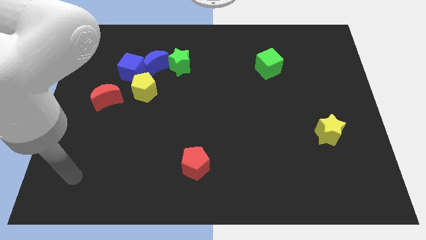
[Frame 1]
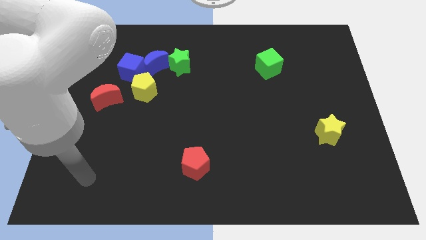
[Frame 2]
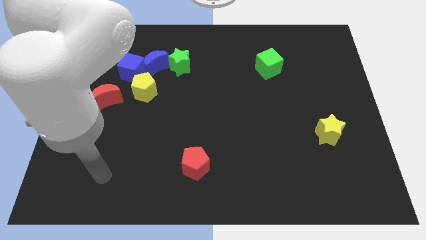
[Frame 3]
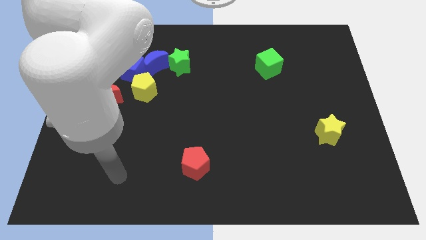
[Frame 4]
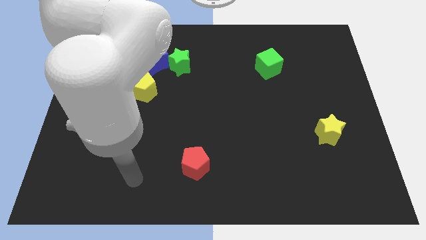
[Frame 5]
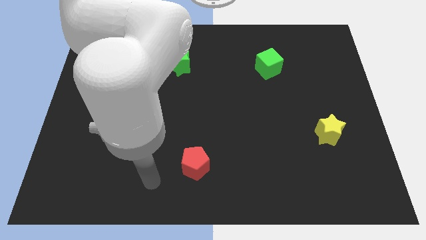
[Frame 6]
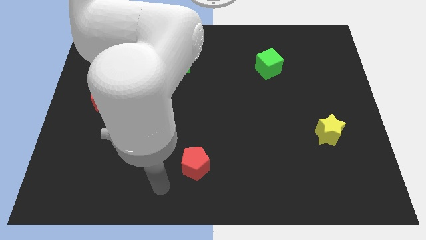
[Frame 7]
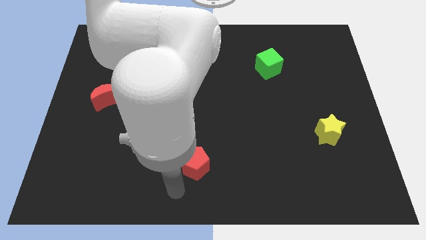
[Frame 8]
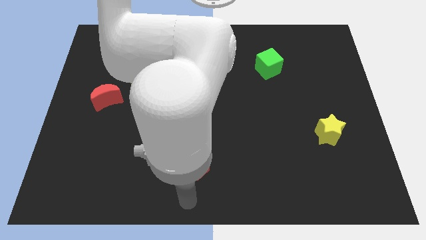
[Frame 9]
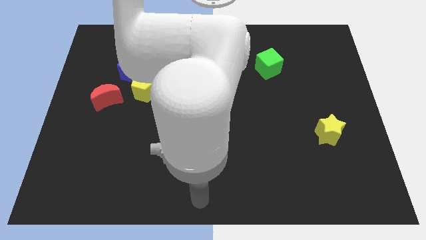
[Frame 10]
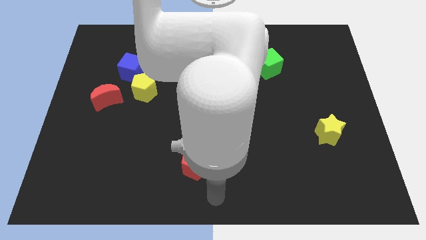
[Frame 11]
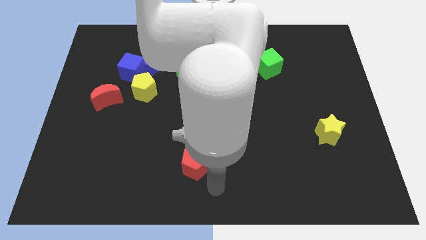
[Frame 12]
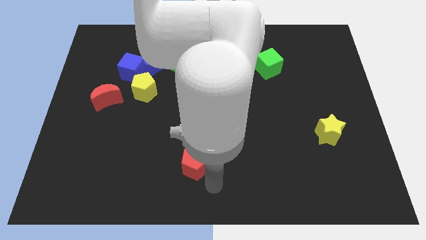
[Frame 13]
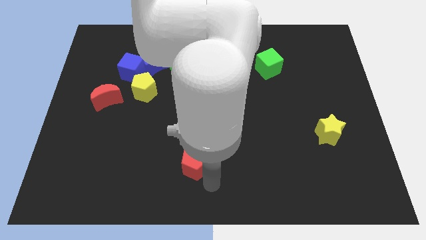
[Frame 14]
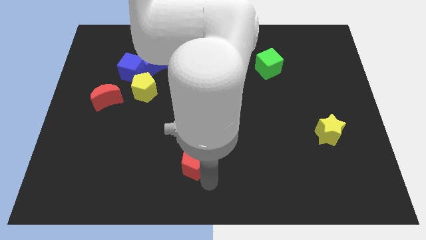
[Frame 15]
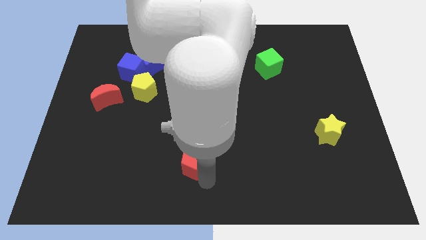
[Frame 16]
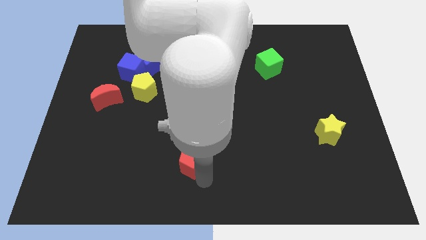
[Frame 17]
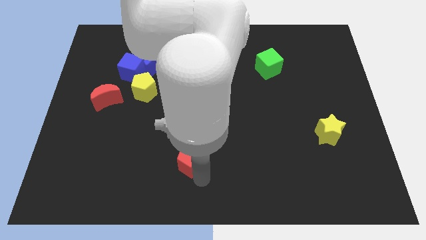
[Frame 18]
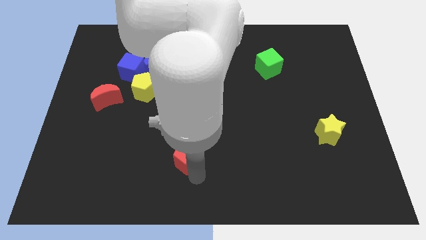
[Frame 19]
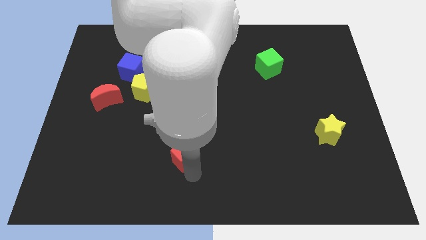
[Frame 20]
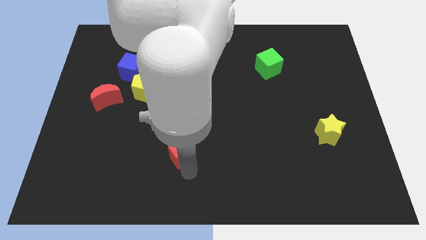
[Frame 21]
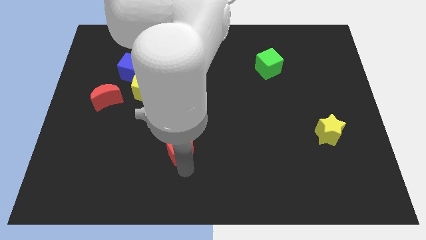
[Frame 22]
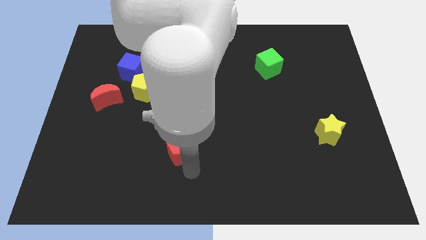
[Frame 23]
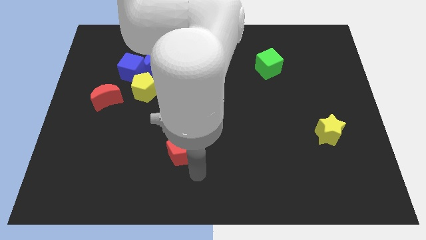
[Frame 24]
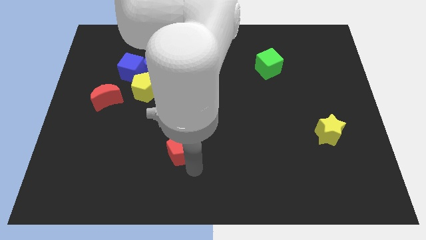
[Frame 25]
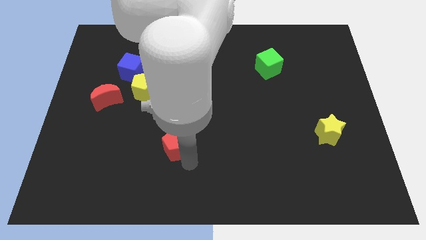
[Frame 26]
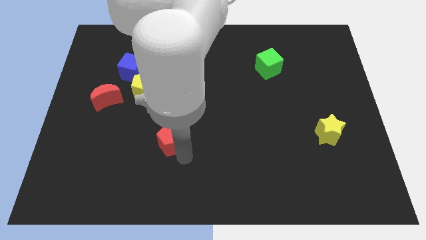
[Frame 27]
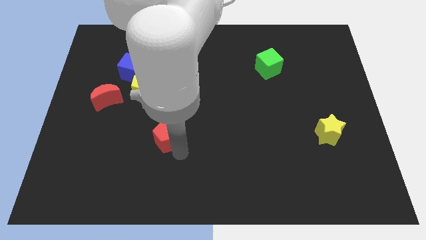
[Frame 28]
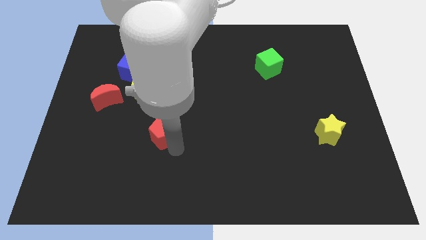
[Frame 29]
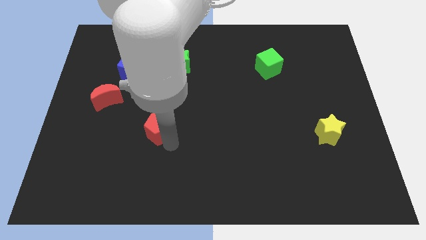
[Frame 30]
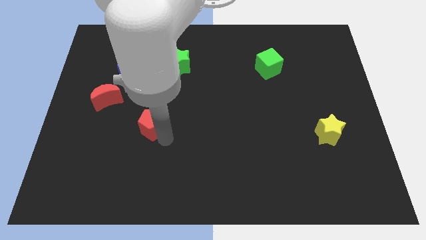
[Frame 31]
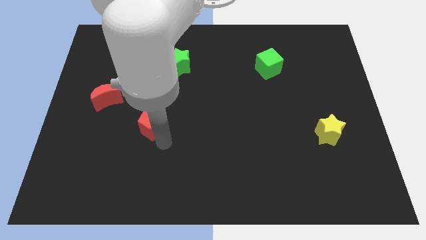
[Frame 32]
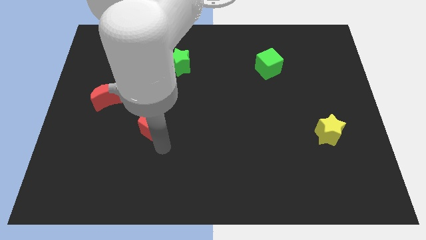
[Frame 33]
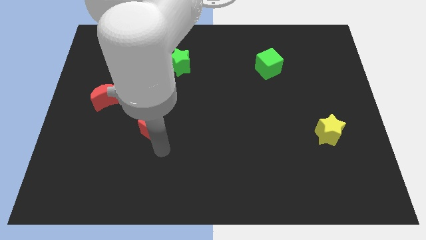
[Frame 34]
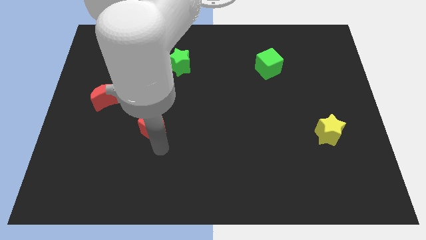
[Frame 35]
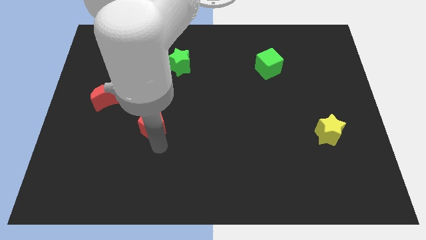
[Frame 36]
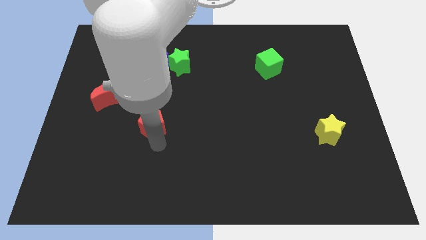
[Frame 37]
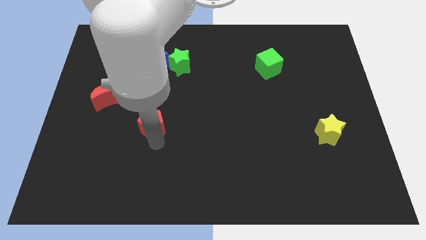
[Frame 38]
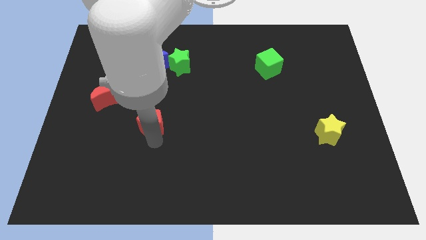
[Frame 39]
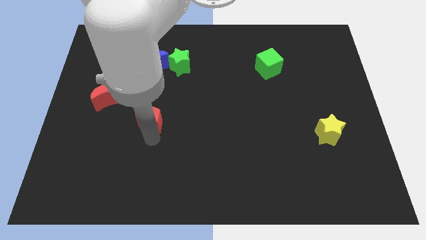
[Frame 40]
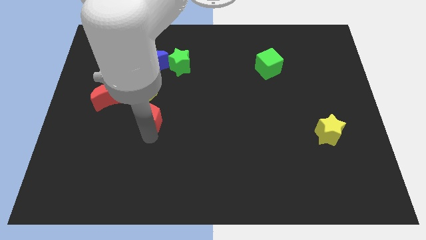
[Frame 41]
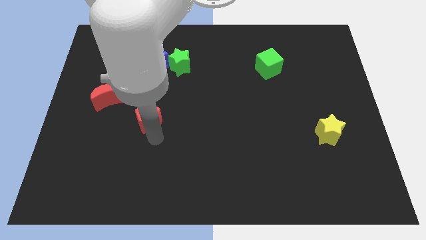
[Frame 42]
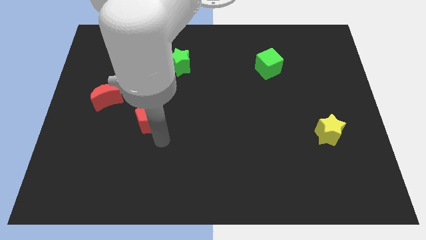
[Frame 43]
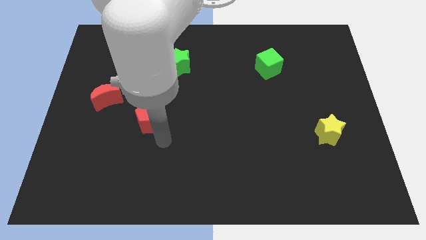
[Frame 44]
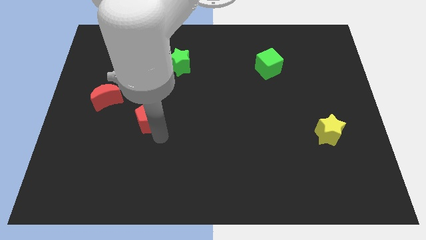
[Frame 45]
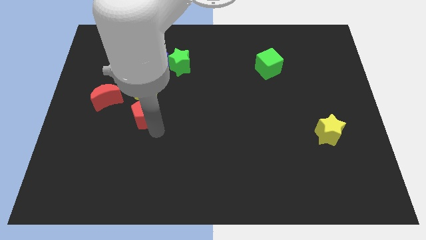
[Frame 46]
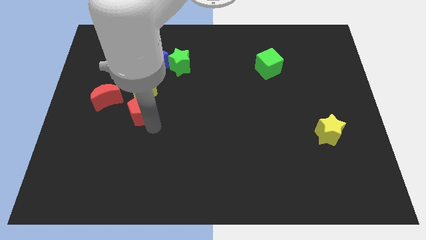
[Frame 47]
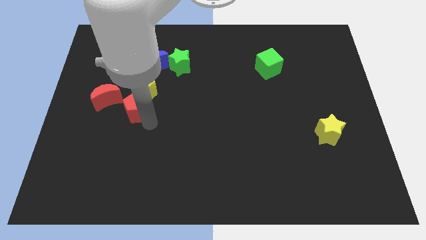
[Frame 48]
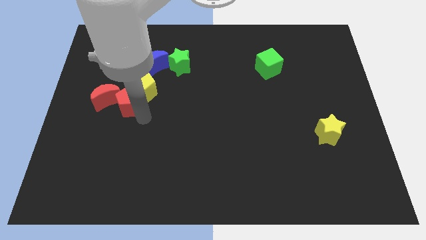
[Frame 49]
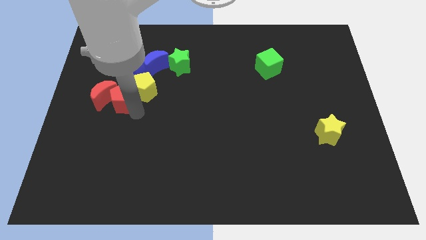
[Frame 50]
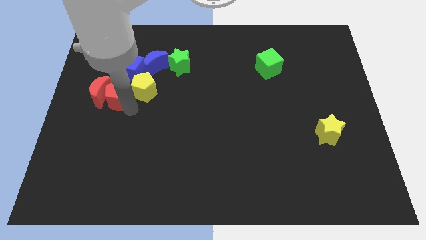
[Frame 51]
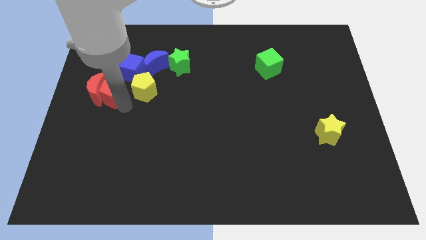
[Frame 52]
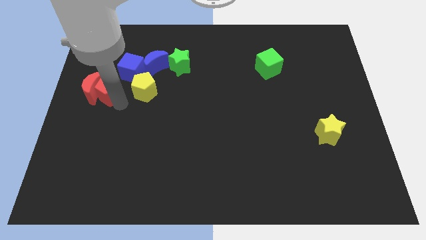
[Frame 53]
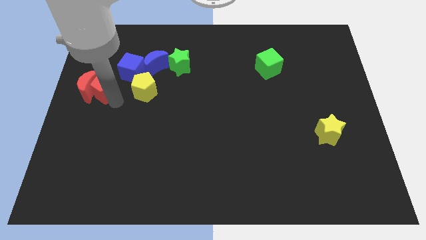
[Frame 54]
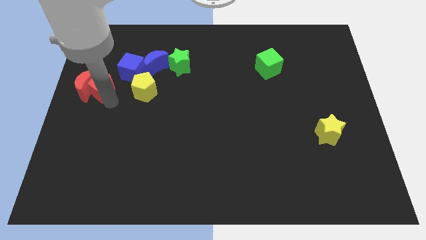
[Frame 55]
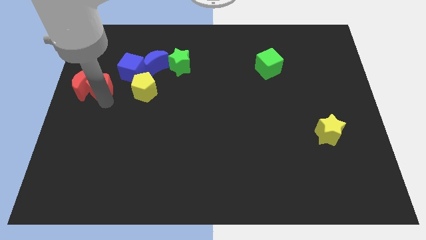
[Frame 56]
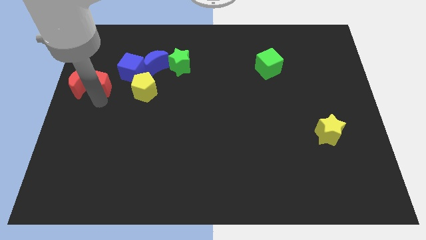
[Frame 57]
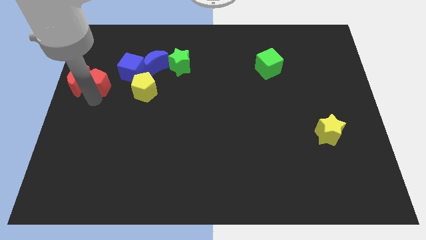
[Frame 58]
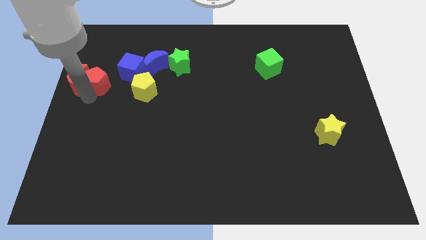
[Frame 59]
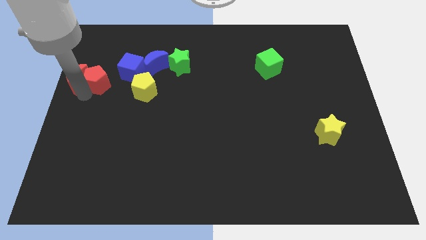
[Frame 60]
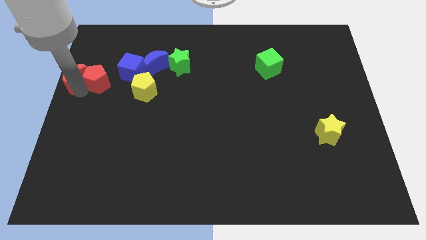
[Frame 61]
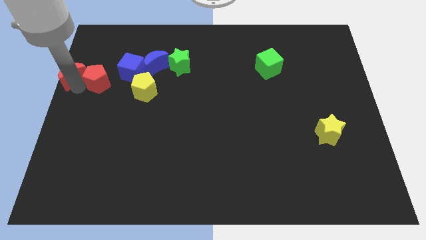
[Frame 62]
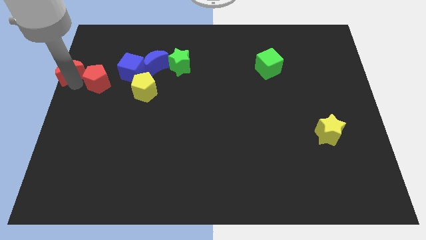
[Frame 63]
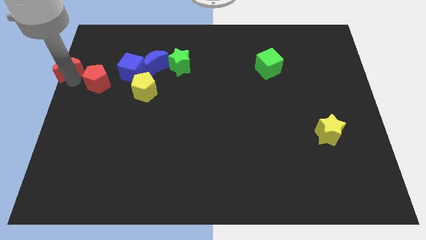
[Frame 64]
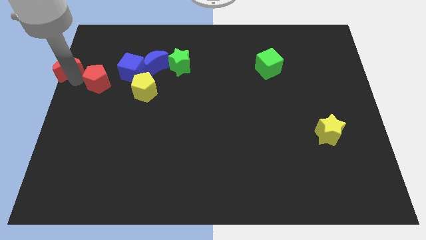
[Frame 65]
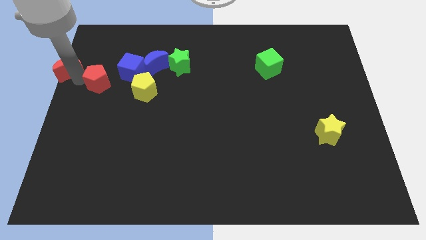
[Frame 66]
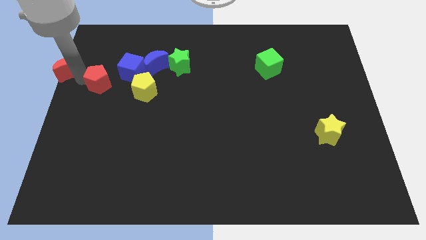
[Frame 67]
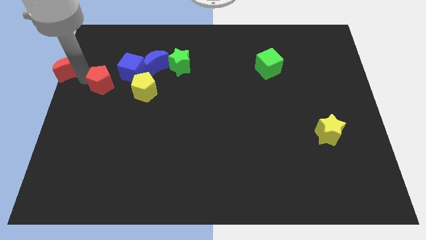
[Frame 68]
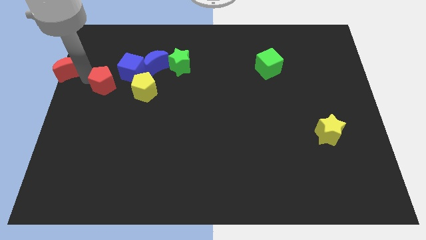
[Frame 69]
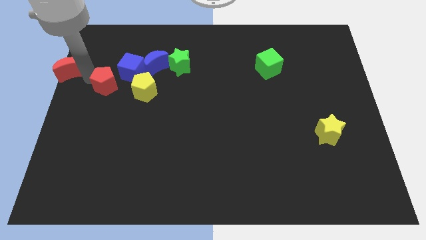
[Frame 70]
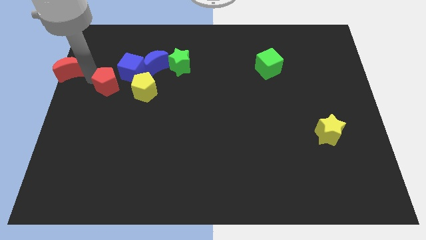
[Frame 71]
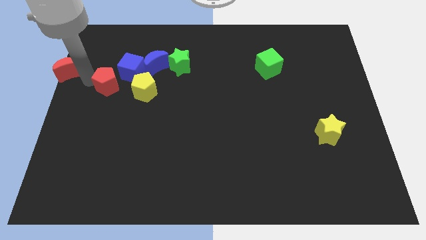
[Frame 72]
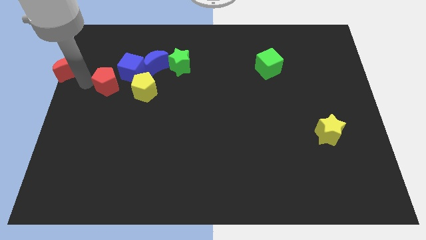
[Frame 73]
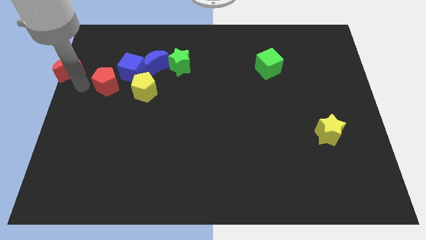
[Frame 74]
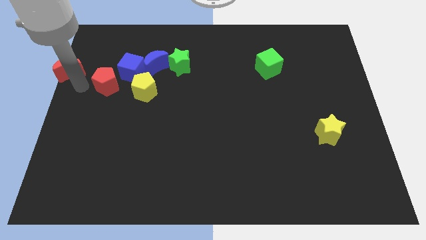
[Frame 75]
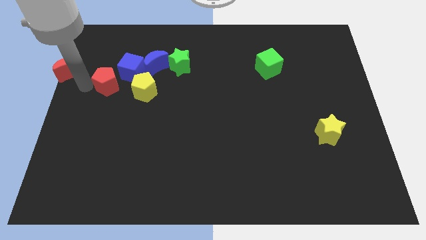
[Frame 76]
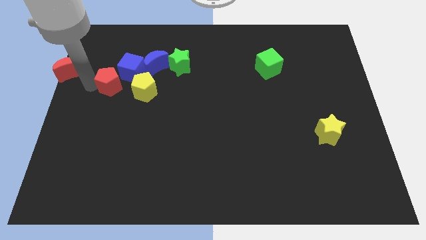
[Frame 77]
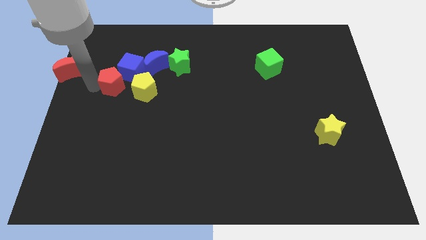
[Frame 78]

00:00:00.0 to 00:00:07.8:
move the red pentagon to the blue cube
